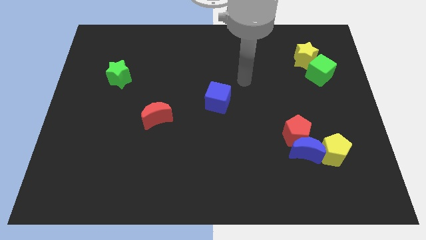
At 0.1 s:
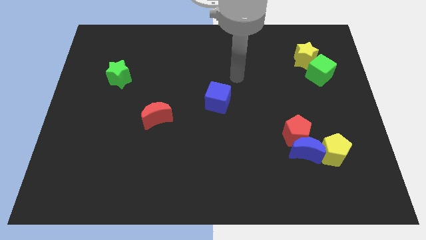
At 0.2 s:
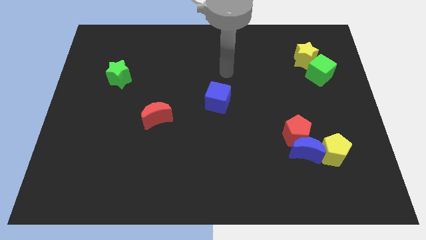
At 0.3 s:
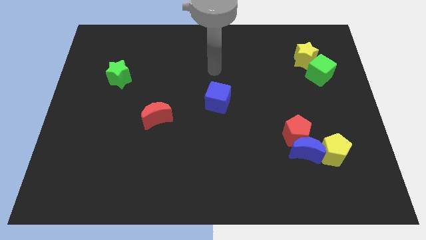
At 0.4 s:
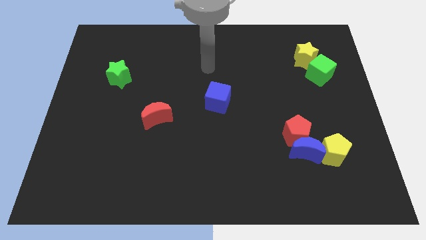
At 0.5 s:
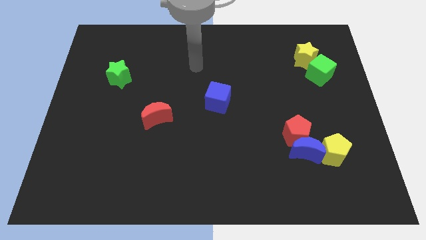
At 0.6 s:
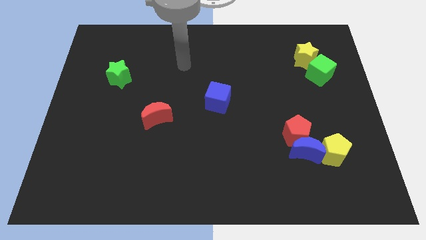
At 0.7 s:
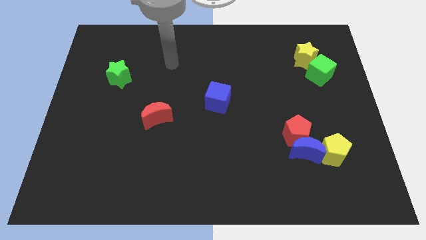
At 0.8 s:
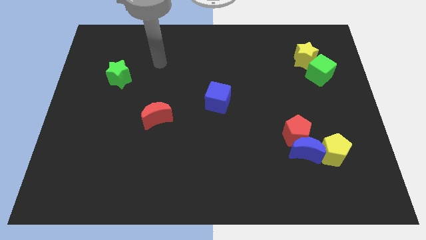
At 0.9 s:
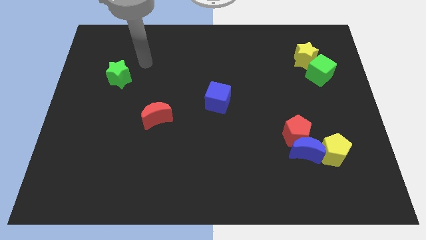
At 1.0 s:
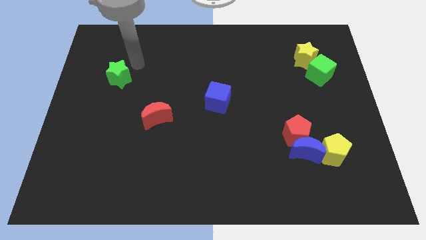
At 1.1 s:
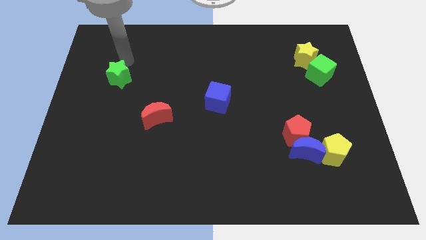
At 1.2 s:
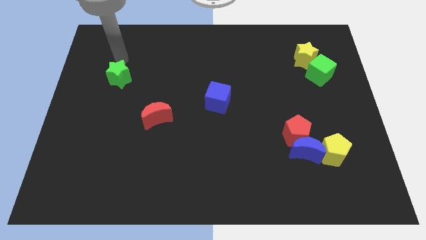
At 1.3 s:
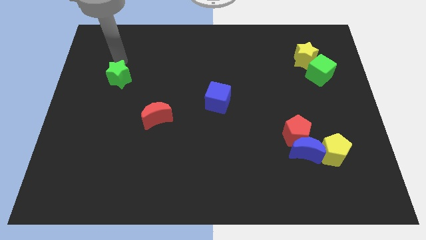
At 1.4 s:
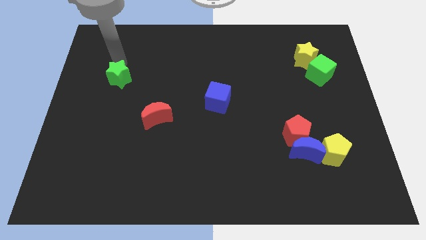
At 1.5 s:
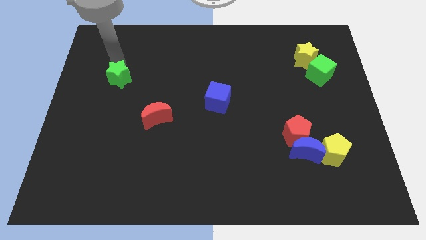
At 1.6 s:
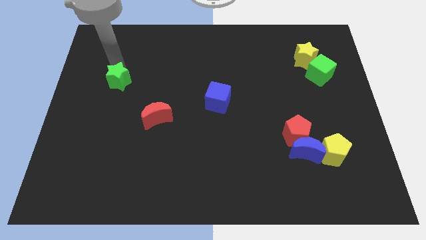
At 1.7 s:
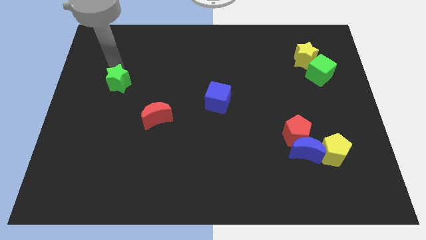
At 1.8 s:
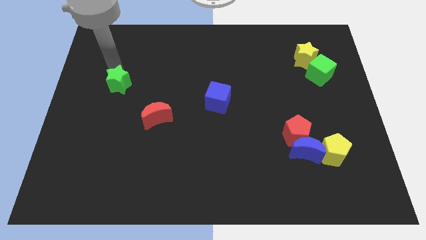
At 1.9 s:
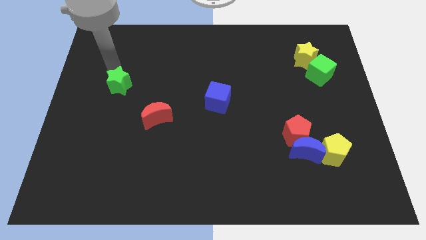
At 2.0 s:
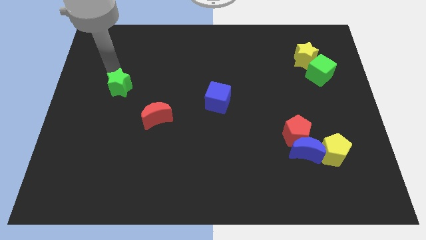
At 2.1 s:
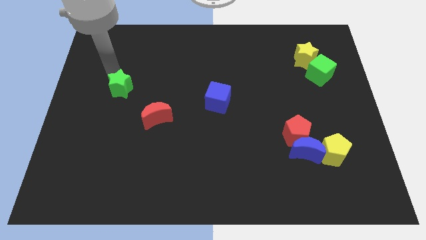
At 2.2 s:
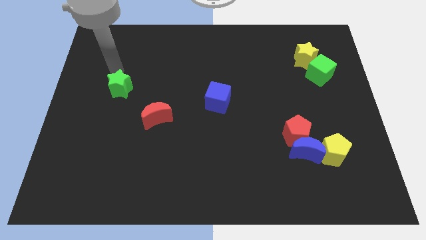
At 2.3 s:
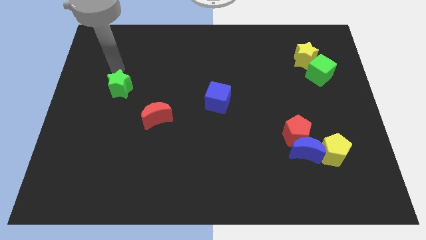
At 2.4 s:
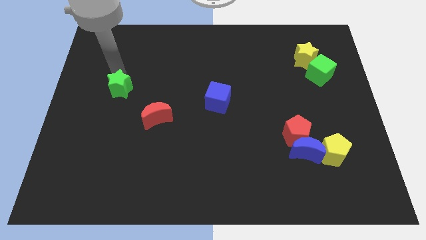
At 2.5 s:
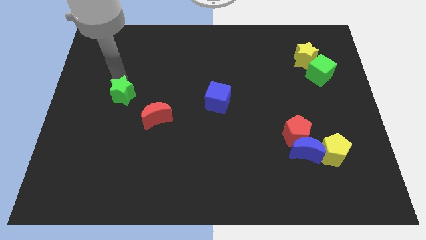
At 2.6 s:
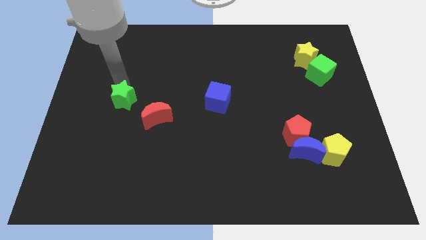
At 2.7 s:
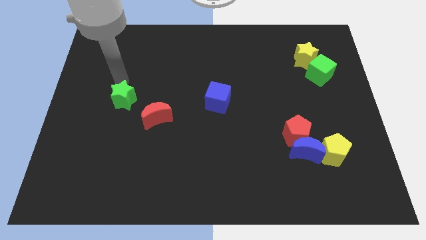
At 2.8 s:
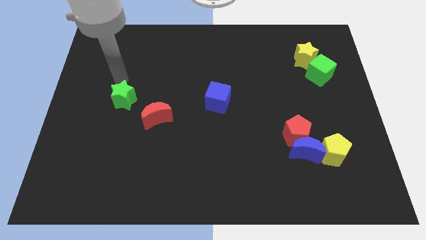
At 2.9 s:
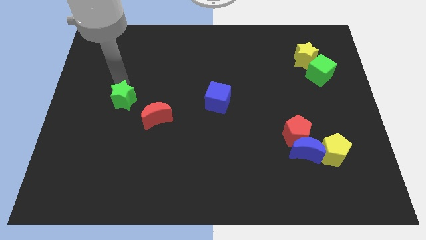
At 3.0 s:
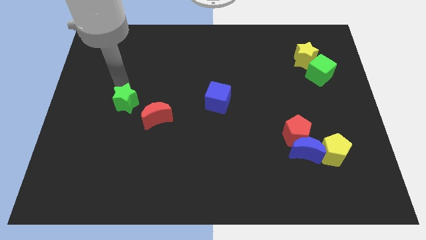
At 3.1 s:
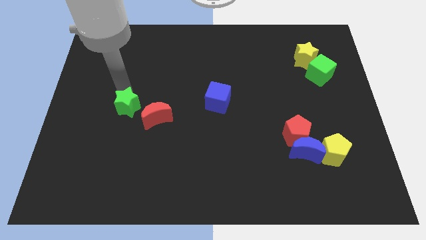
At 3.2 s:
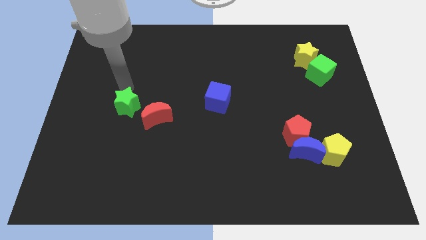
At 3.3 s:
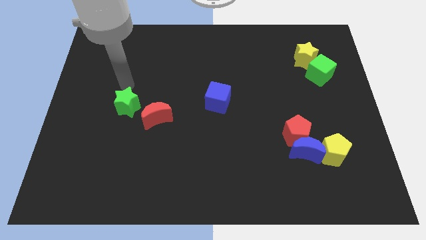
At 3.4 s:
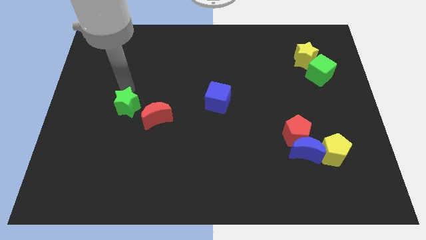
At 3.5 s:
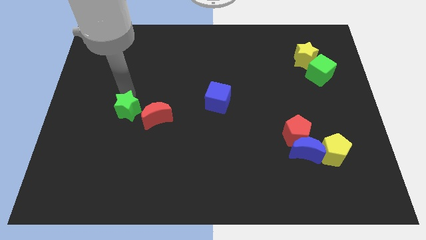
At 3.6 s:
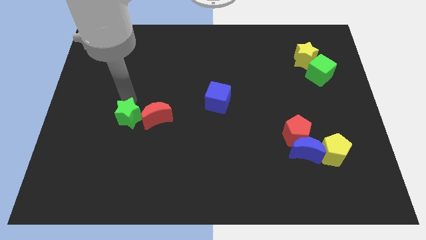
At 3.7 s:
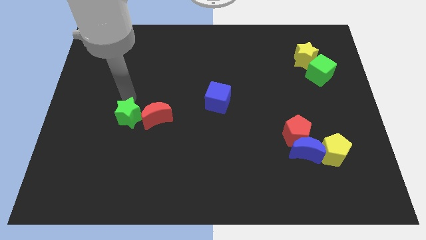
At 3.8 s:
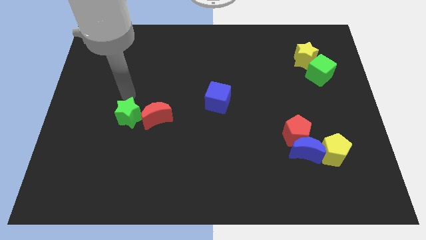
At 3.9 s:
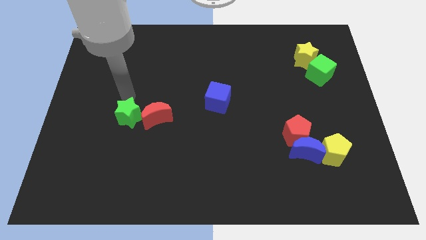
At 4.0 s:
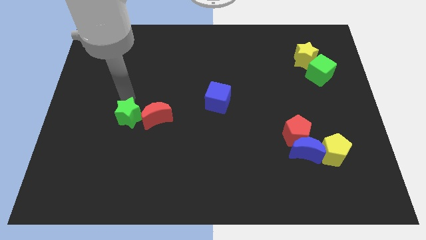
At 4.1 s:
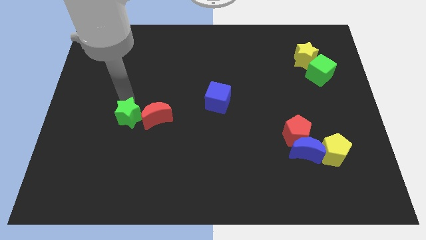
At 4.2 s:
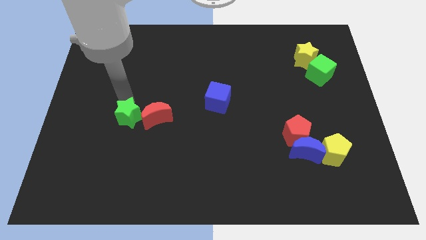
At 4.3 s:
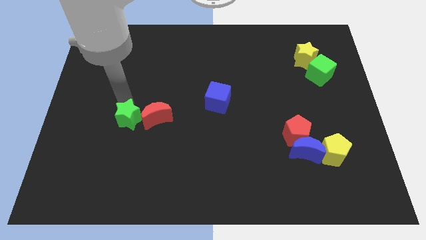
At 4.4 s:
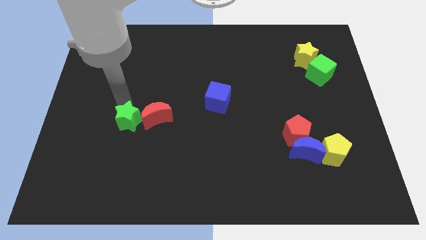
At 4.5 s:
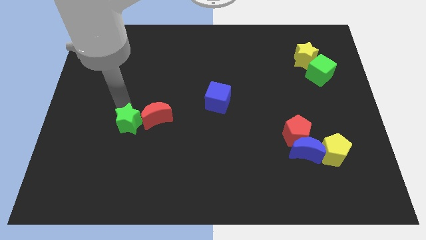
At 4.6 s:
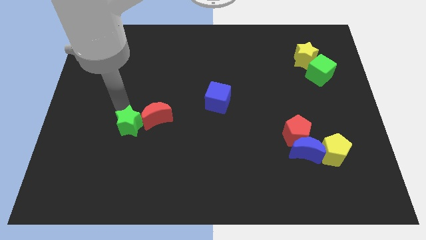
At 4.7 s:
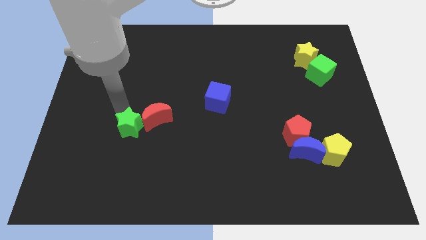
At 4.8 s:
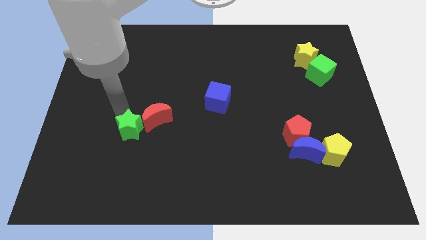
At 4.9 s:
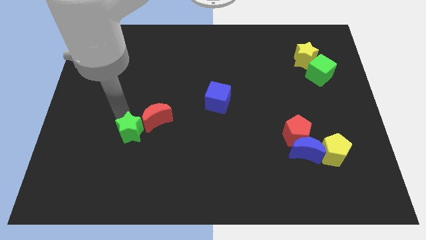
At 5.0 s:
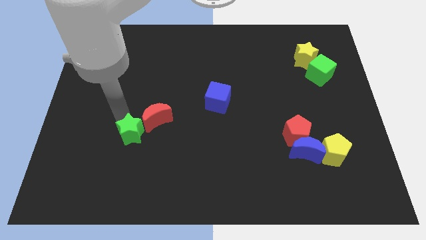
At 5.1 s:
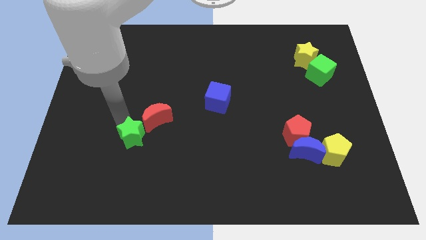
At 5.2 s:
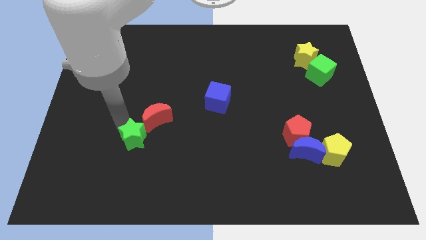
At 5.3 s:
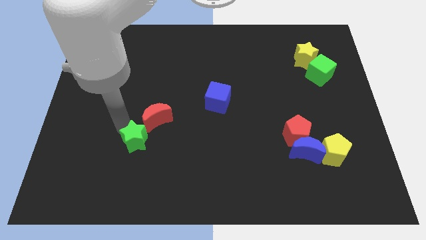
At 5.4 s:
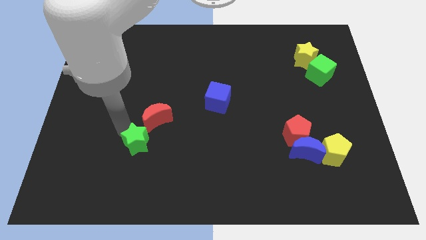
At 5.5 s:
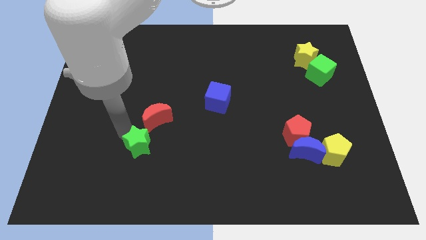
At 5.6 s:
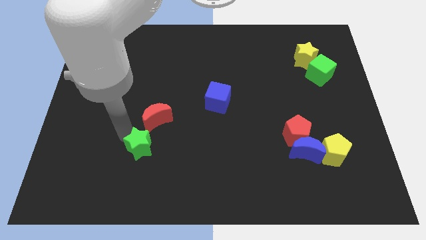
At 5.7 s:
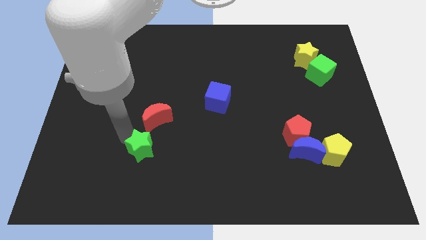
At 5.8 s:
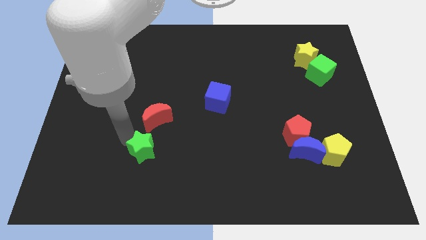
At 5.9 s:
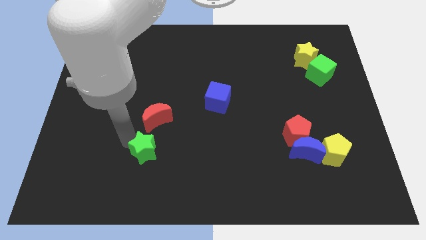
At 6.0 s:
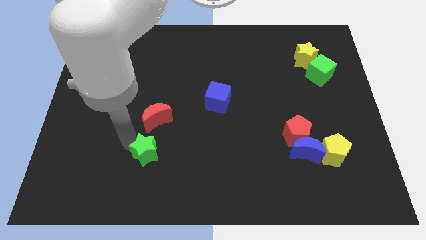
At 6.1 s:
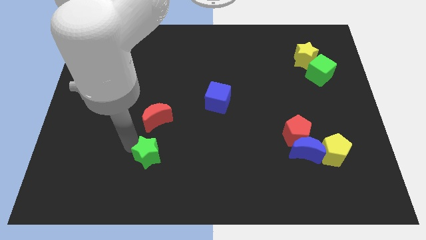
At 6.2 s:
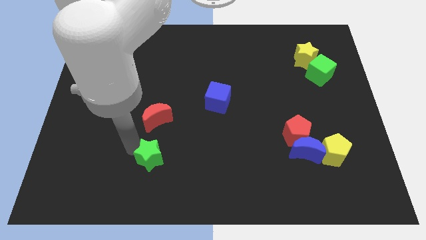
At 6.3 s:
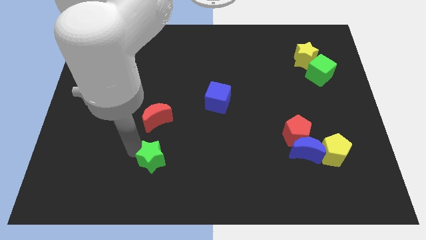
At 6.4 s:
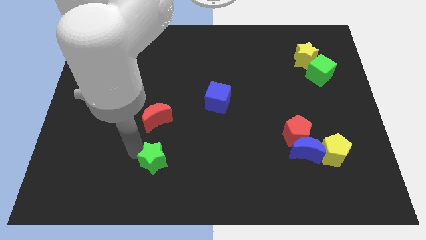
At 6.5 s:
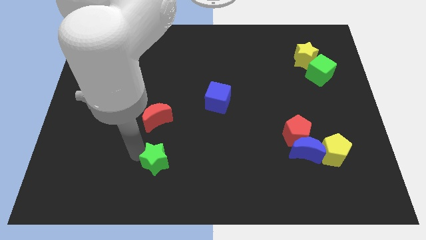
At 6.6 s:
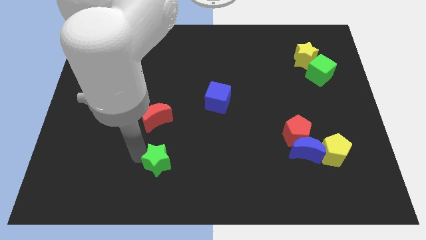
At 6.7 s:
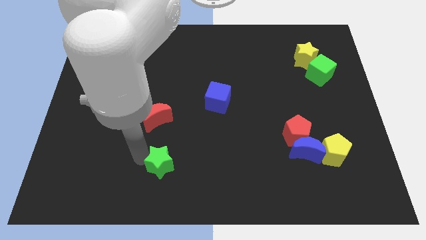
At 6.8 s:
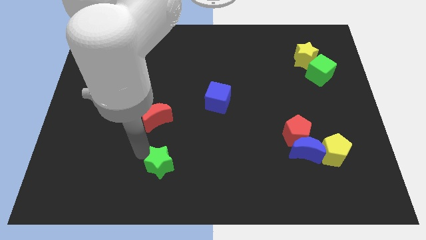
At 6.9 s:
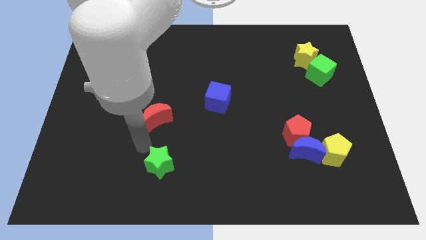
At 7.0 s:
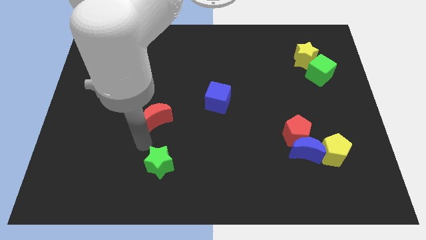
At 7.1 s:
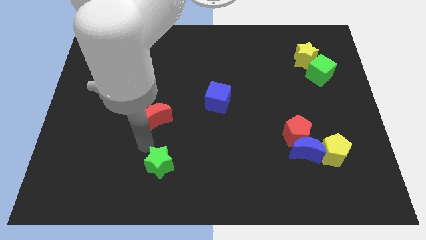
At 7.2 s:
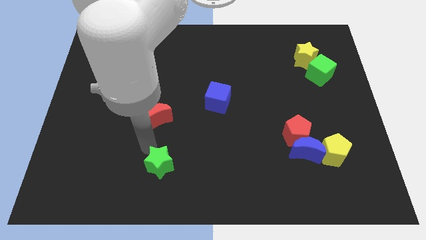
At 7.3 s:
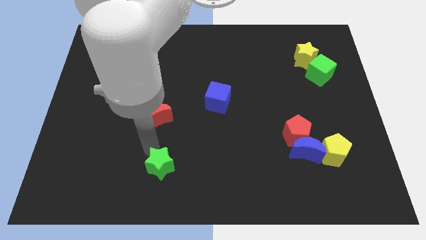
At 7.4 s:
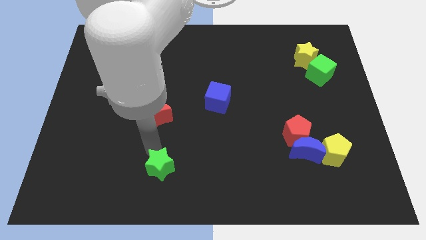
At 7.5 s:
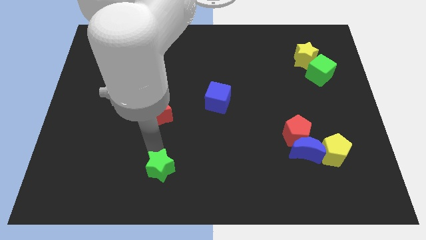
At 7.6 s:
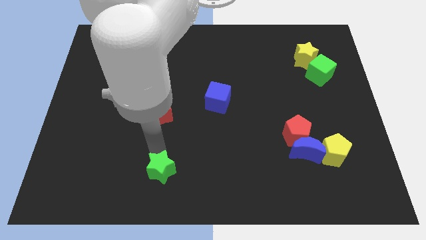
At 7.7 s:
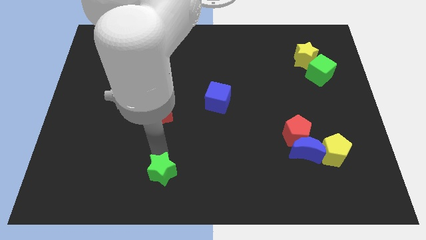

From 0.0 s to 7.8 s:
push the green star to the bottom
